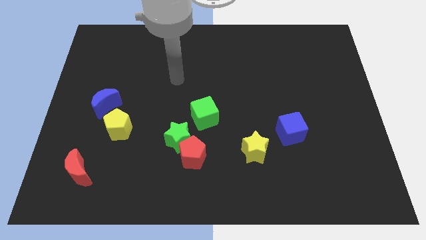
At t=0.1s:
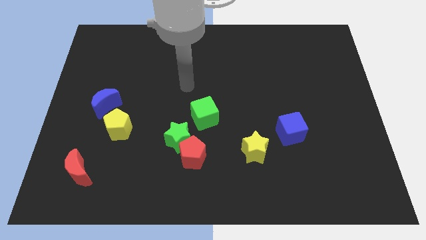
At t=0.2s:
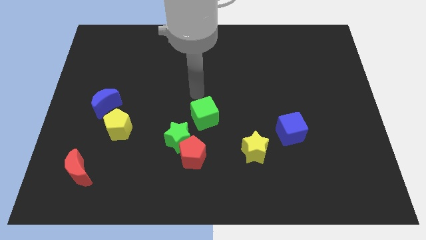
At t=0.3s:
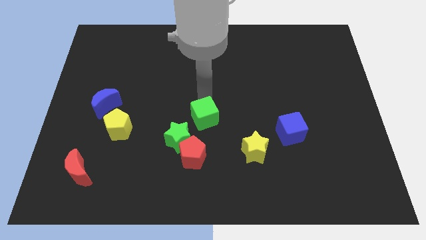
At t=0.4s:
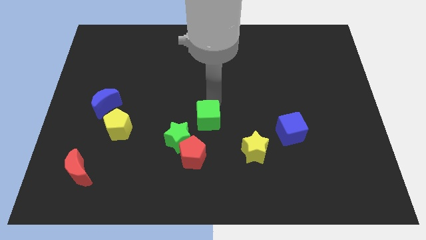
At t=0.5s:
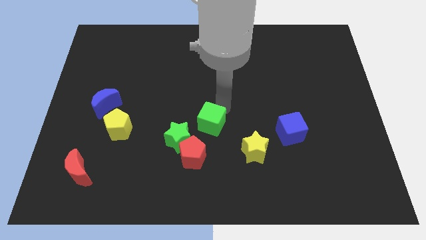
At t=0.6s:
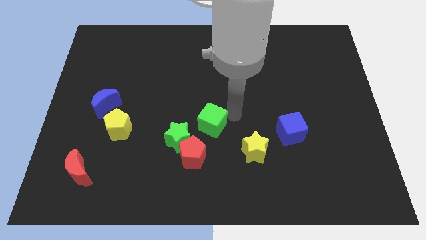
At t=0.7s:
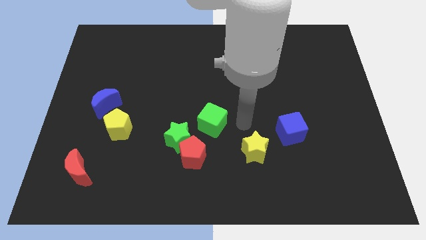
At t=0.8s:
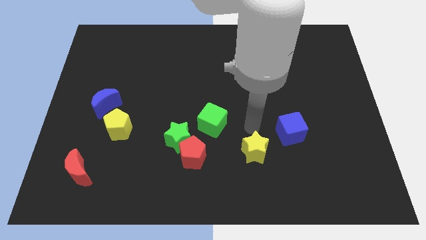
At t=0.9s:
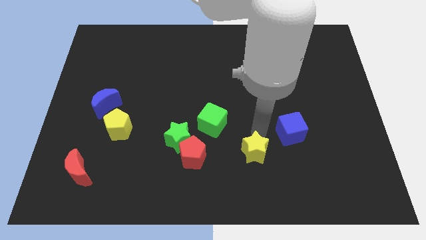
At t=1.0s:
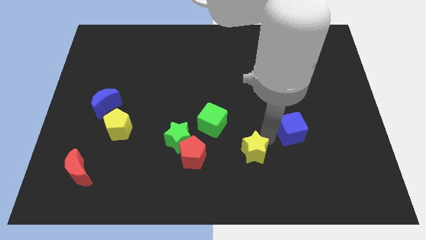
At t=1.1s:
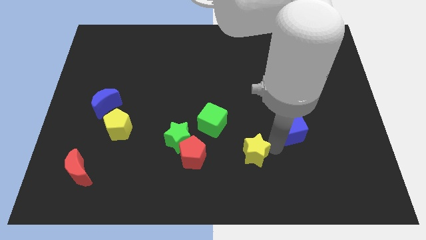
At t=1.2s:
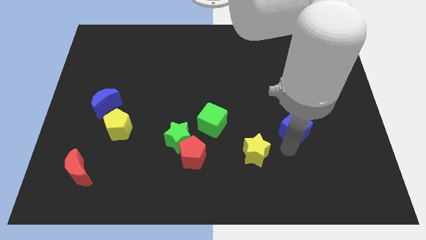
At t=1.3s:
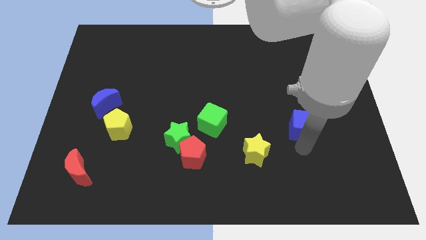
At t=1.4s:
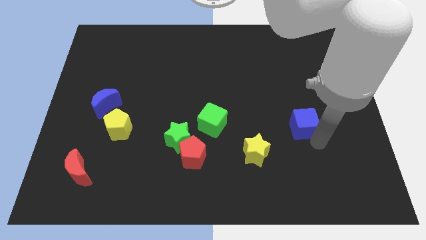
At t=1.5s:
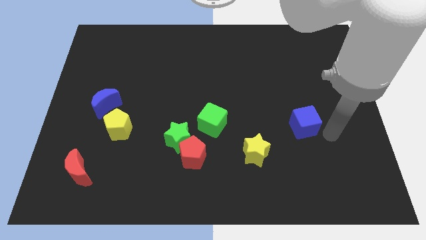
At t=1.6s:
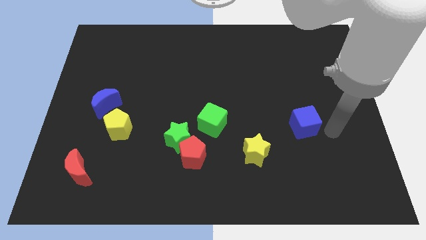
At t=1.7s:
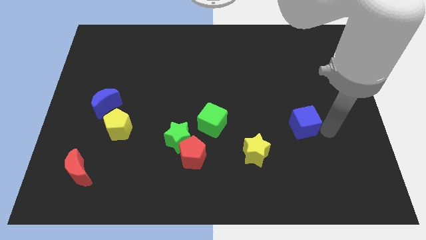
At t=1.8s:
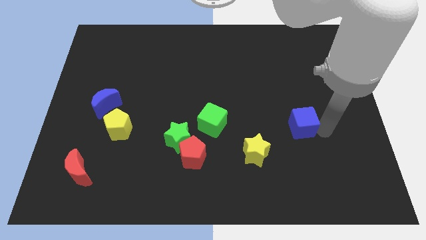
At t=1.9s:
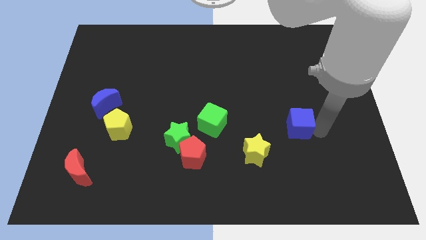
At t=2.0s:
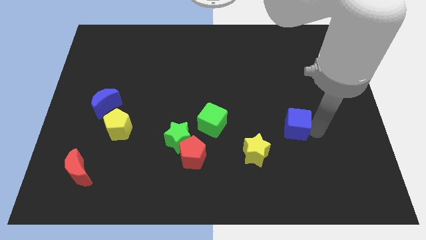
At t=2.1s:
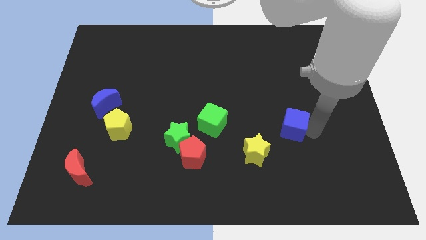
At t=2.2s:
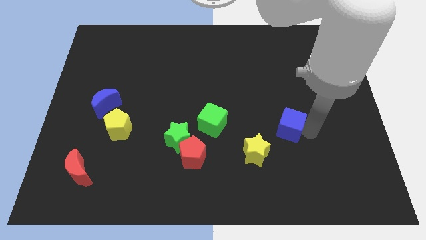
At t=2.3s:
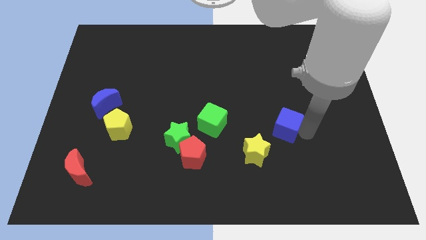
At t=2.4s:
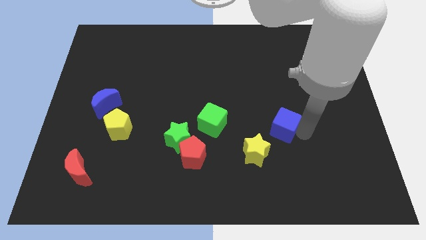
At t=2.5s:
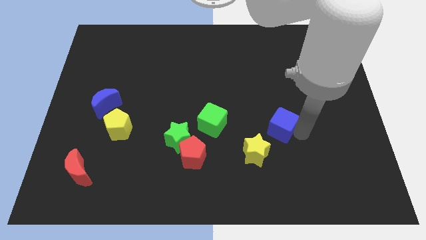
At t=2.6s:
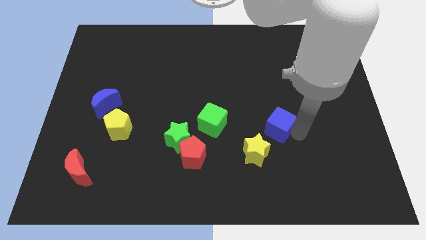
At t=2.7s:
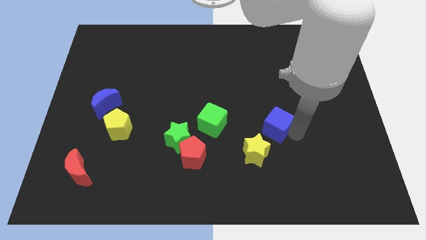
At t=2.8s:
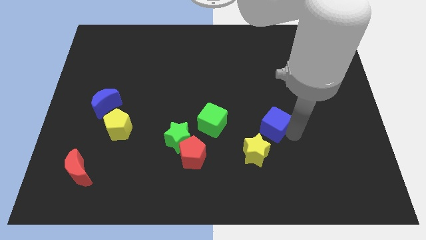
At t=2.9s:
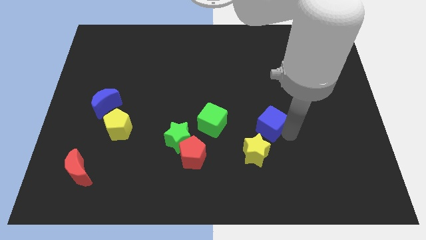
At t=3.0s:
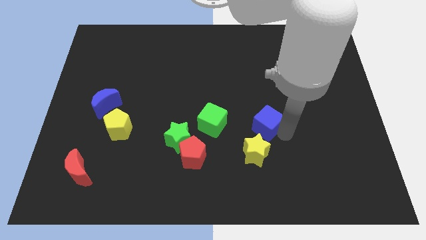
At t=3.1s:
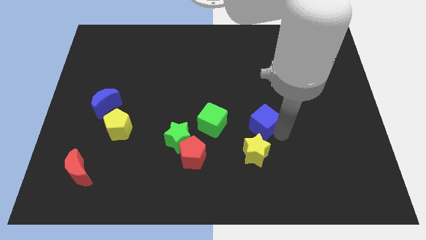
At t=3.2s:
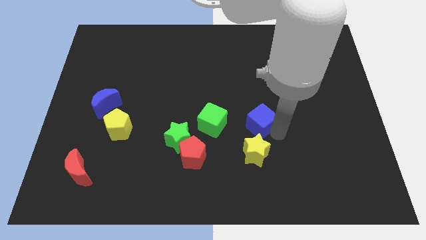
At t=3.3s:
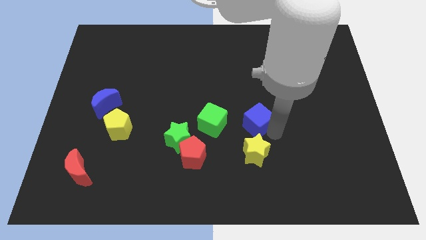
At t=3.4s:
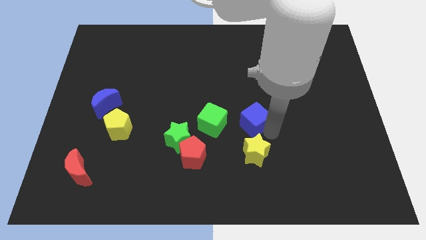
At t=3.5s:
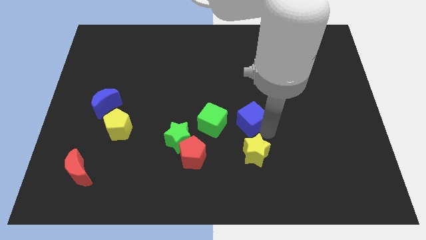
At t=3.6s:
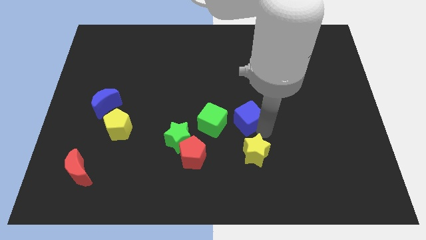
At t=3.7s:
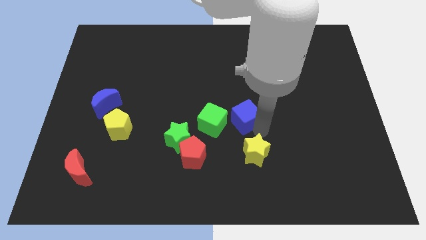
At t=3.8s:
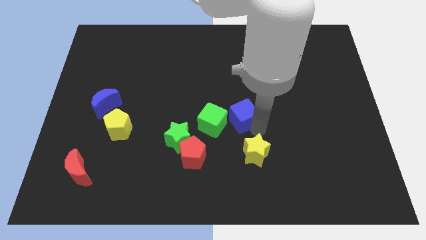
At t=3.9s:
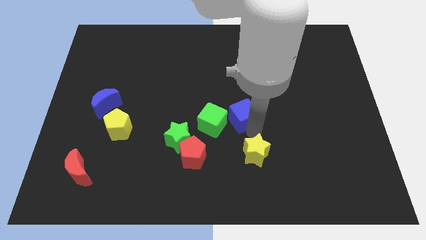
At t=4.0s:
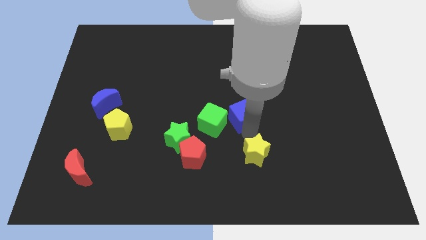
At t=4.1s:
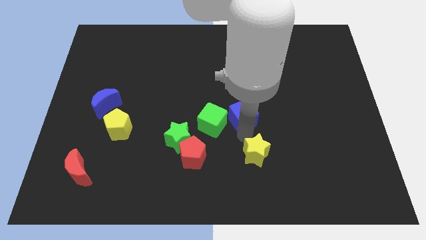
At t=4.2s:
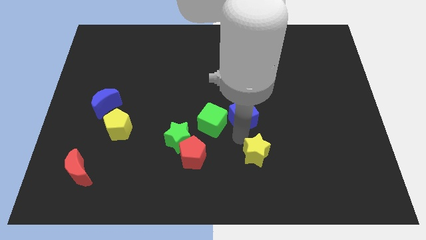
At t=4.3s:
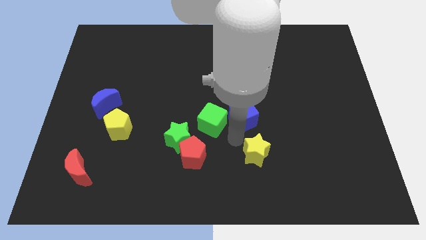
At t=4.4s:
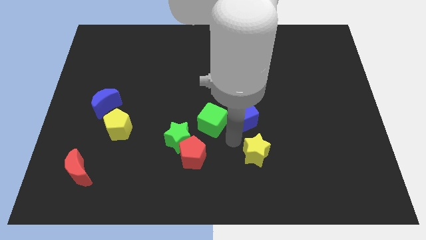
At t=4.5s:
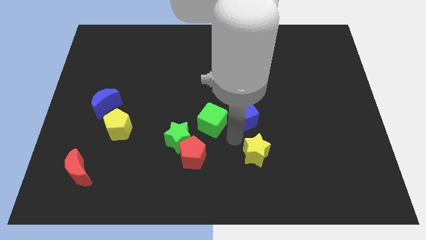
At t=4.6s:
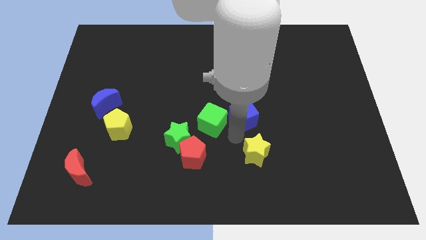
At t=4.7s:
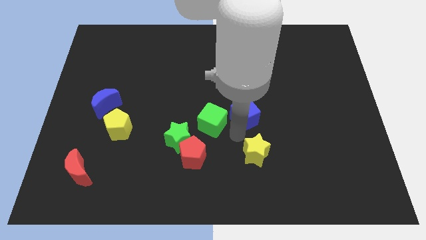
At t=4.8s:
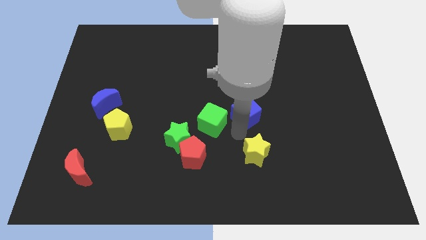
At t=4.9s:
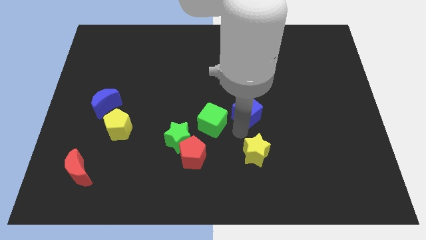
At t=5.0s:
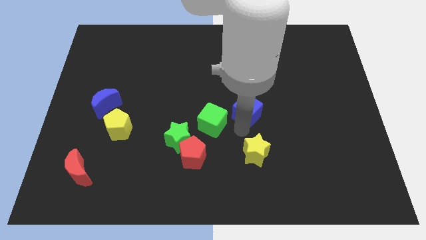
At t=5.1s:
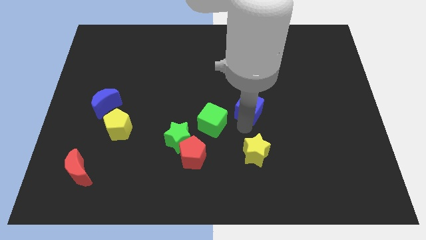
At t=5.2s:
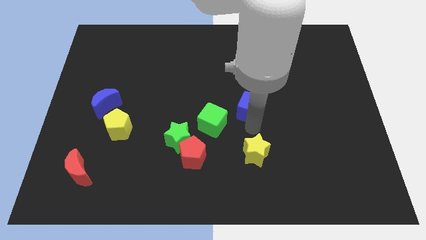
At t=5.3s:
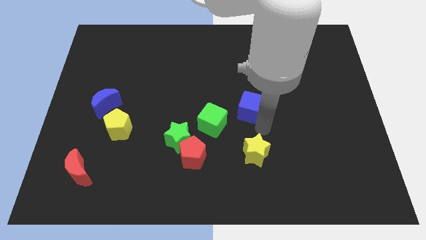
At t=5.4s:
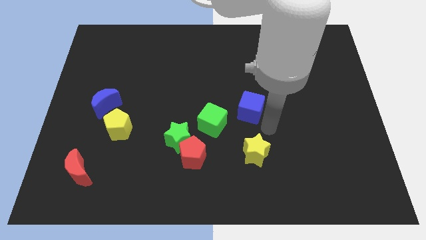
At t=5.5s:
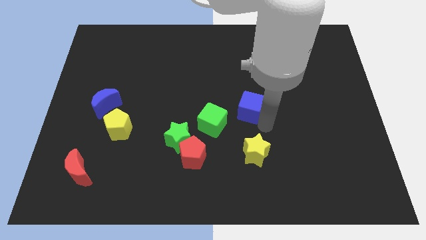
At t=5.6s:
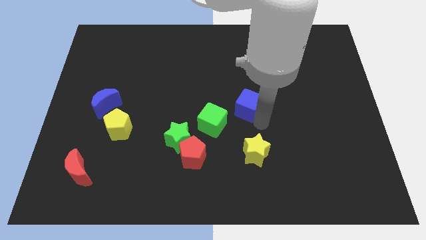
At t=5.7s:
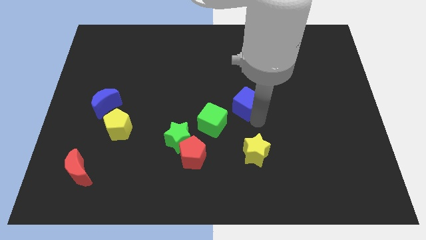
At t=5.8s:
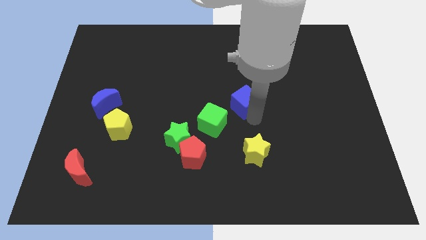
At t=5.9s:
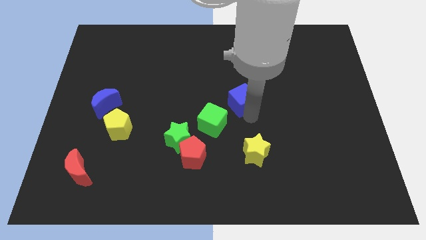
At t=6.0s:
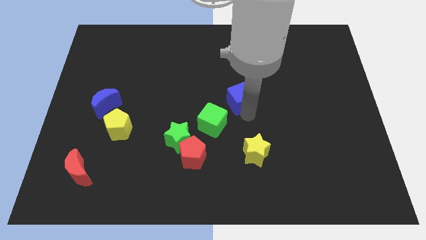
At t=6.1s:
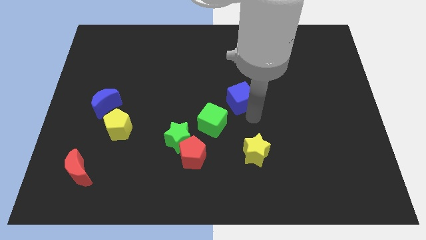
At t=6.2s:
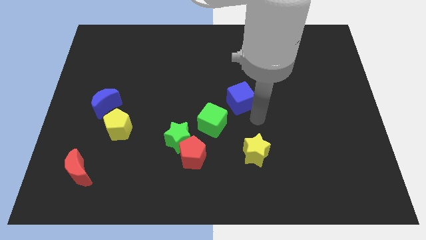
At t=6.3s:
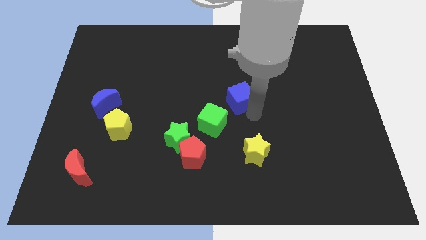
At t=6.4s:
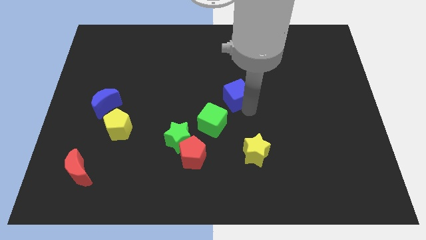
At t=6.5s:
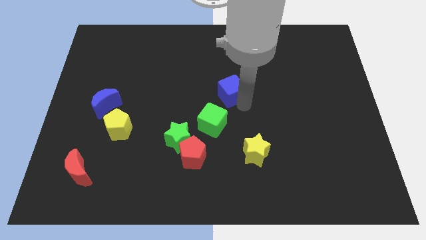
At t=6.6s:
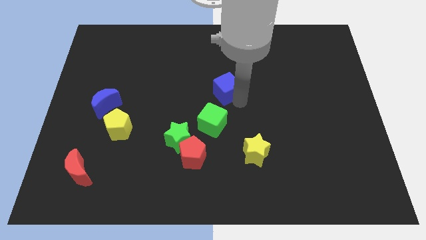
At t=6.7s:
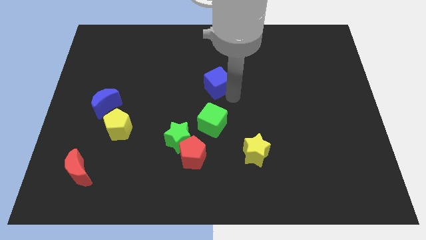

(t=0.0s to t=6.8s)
slide the blue cube upwards and left diagonally

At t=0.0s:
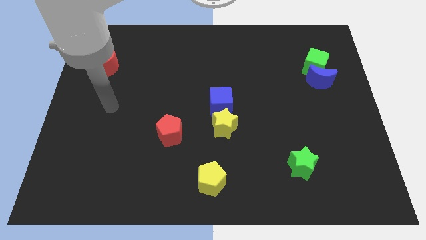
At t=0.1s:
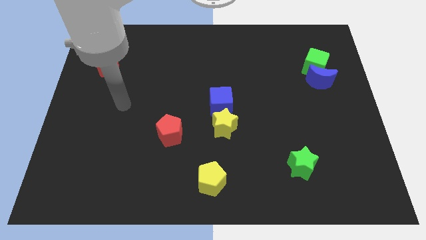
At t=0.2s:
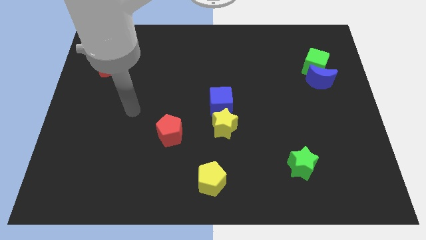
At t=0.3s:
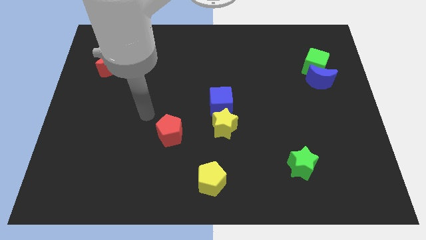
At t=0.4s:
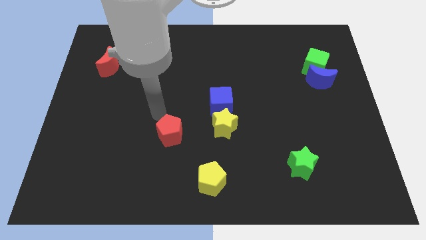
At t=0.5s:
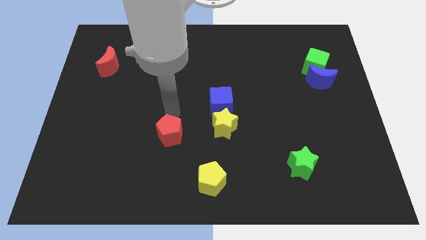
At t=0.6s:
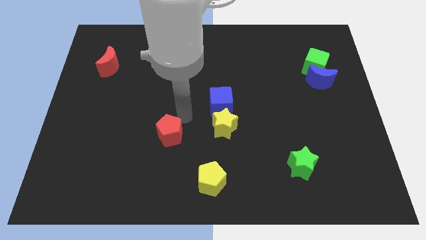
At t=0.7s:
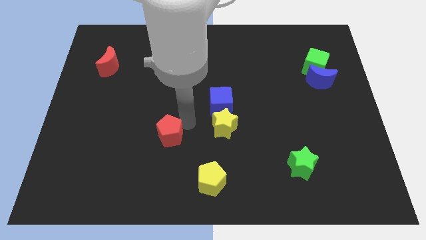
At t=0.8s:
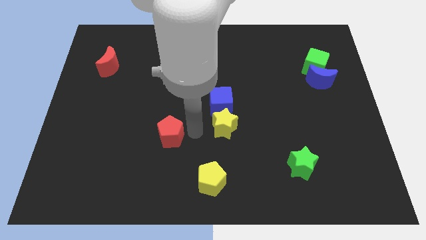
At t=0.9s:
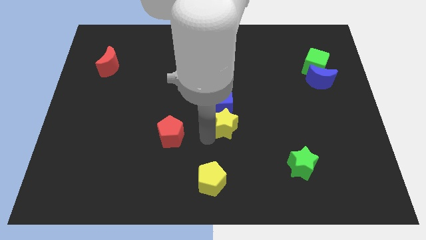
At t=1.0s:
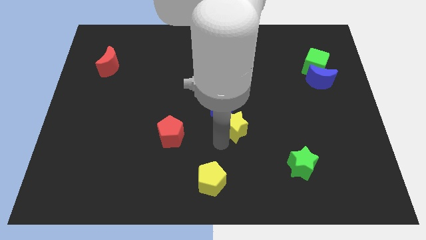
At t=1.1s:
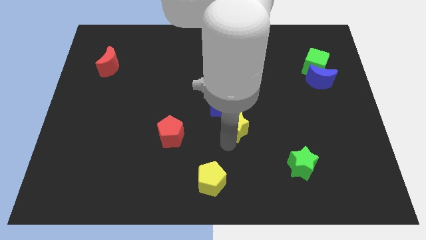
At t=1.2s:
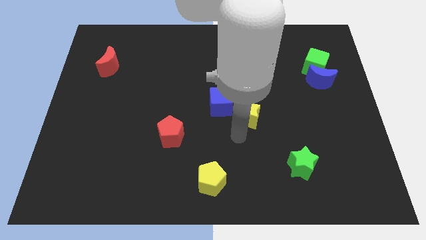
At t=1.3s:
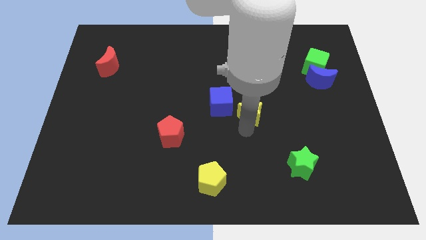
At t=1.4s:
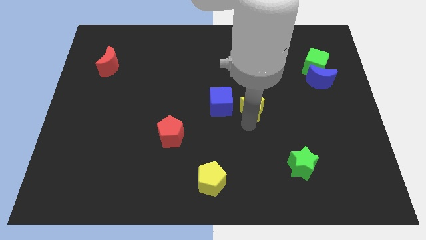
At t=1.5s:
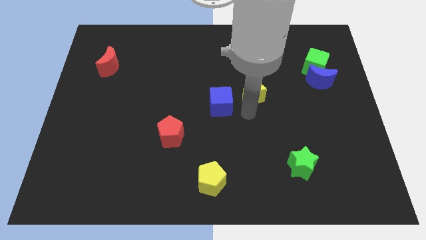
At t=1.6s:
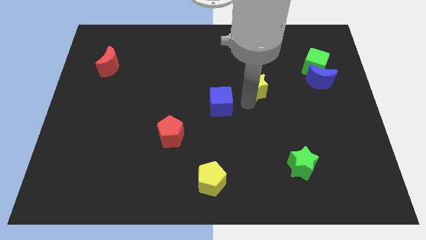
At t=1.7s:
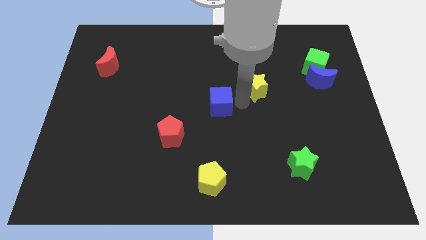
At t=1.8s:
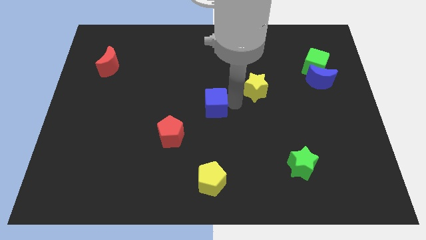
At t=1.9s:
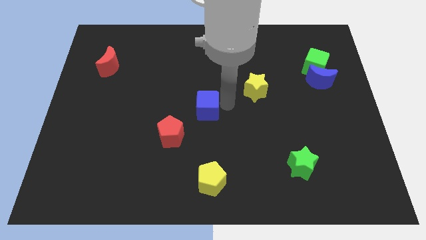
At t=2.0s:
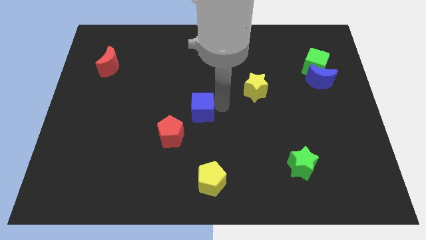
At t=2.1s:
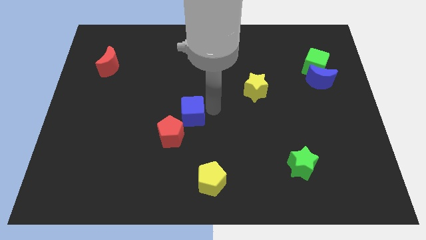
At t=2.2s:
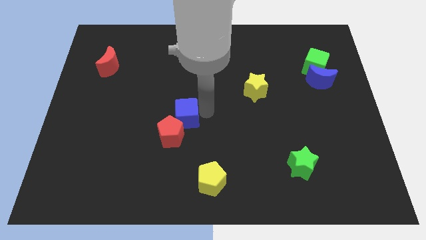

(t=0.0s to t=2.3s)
slide the blue cube to the left a little
